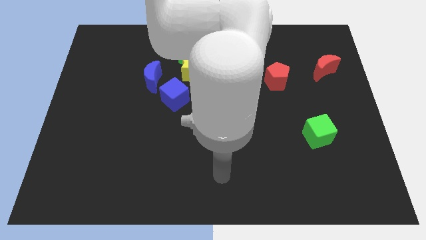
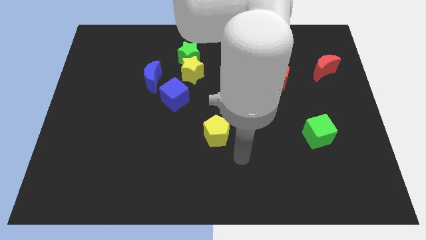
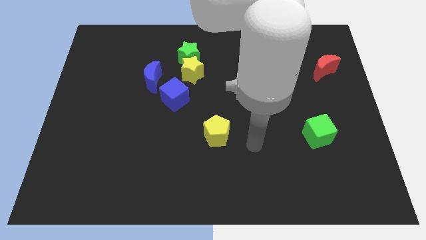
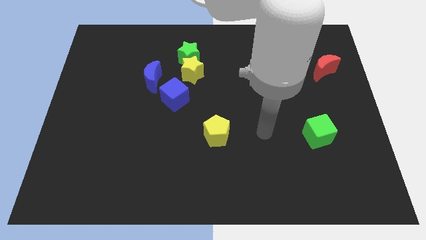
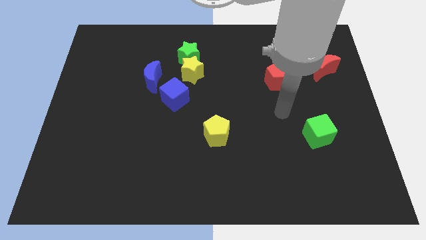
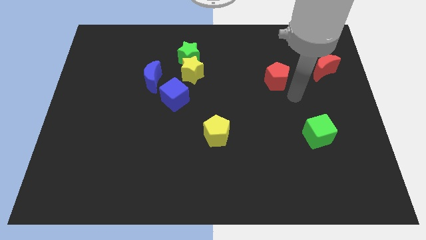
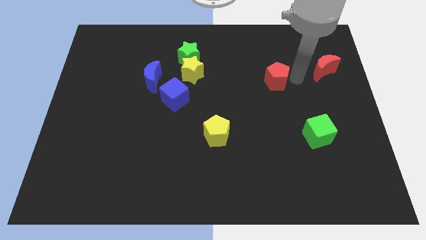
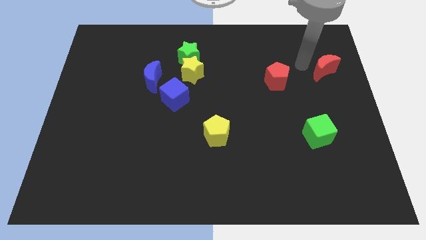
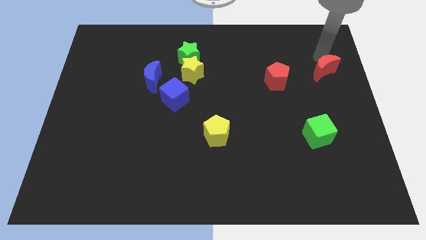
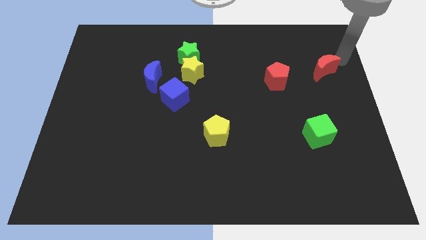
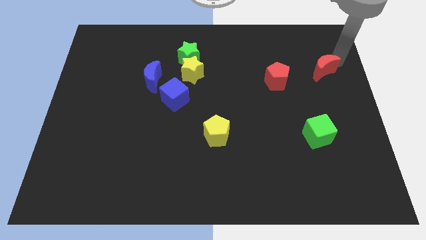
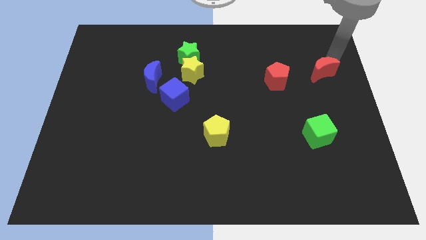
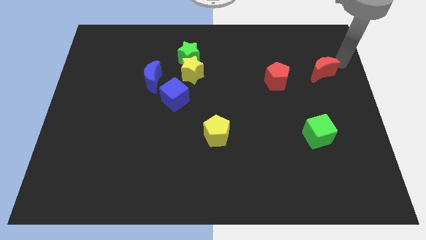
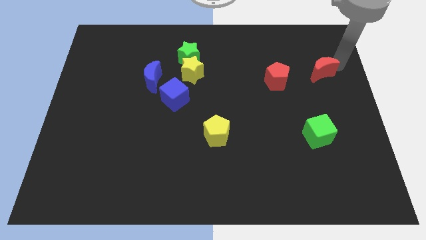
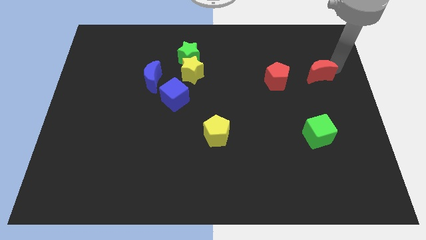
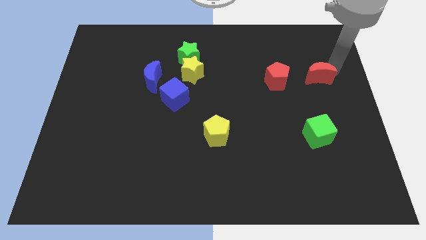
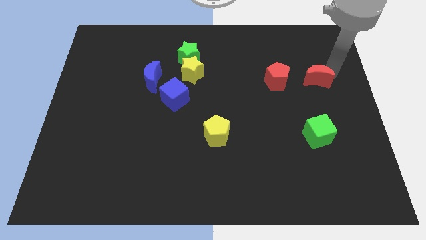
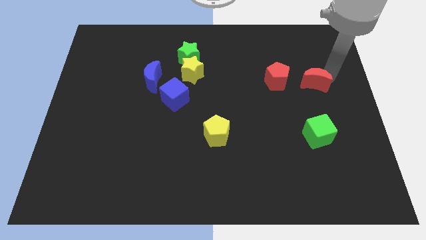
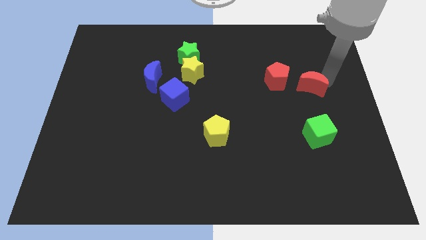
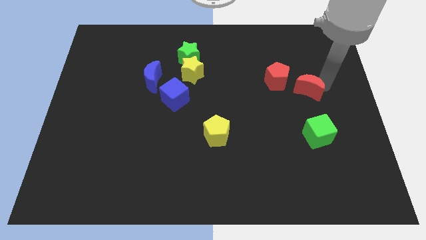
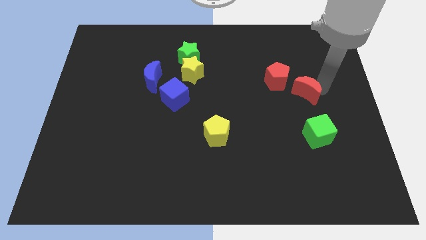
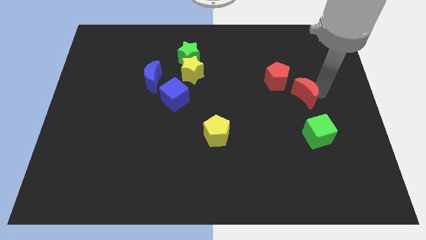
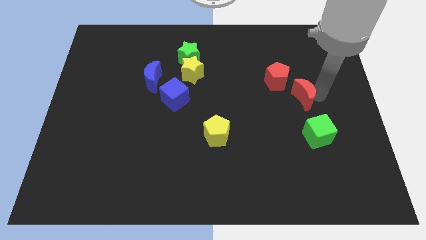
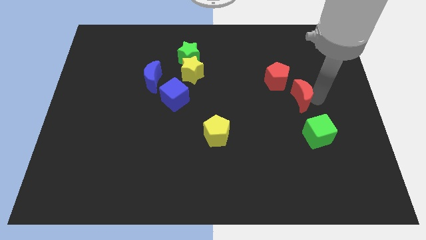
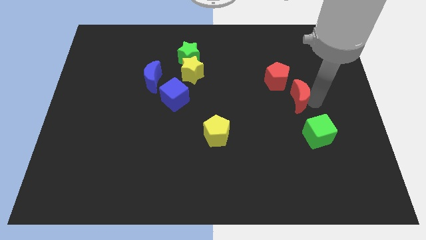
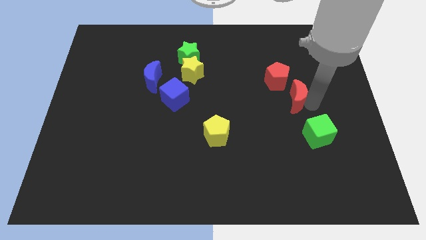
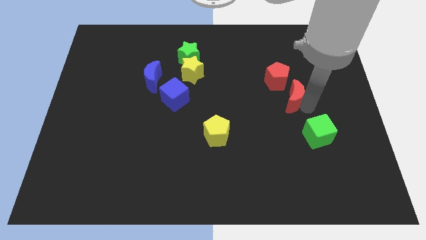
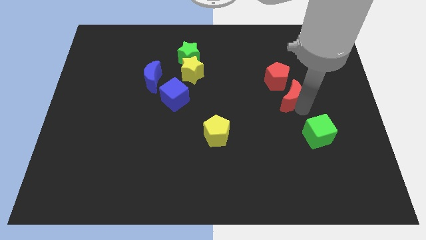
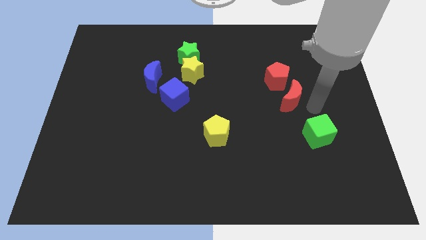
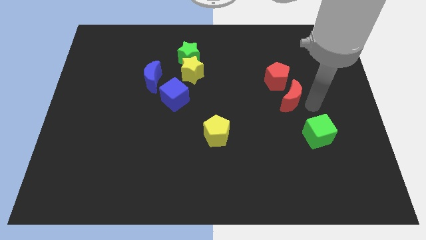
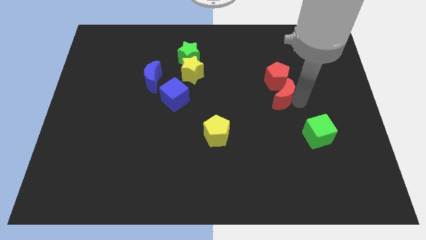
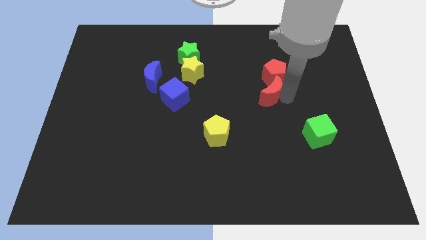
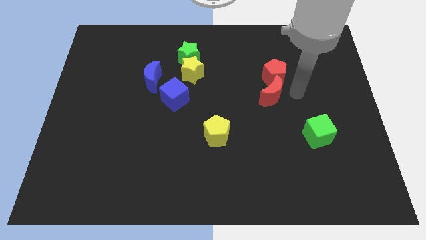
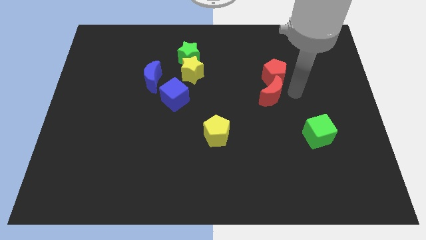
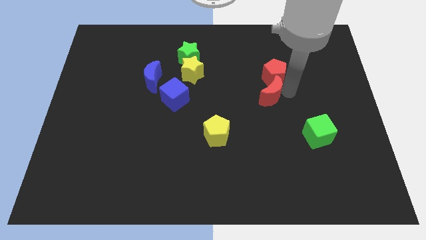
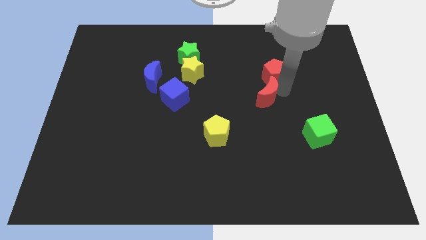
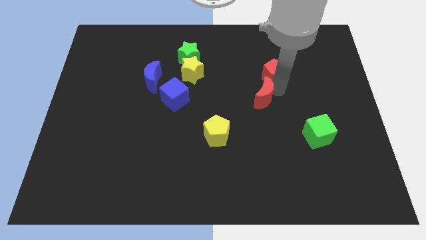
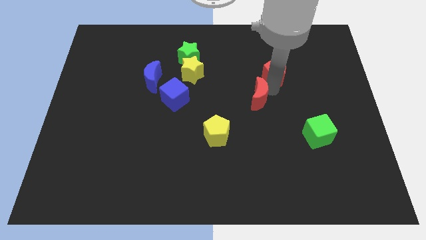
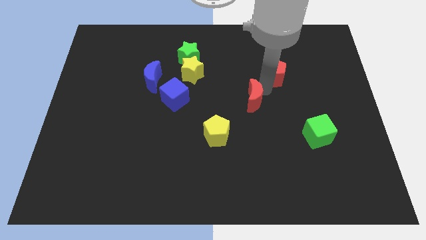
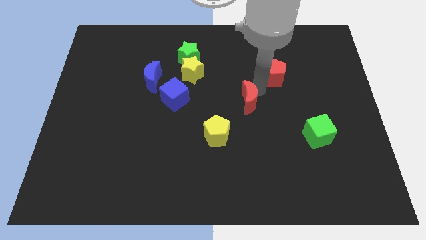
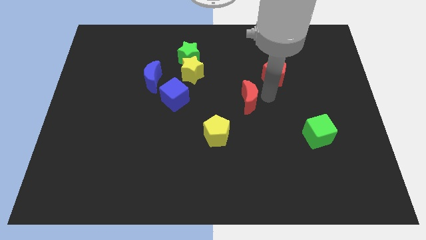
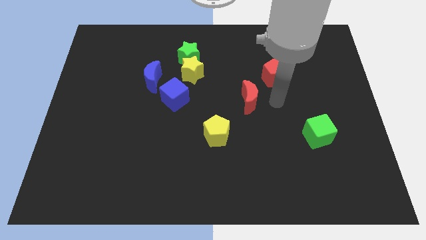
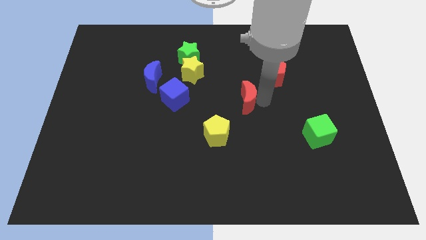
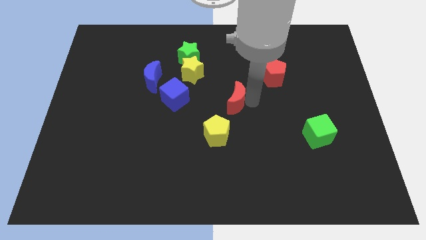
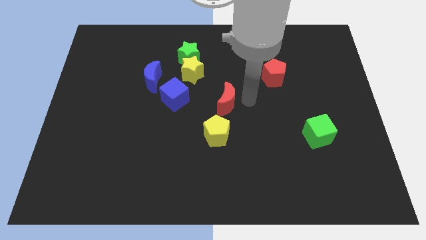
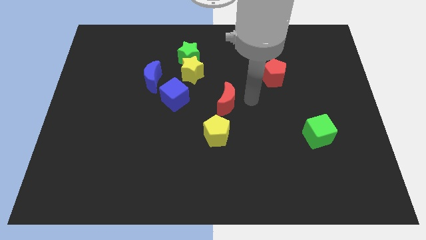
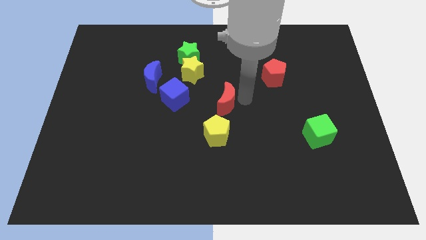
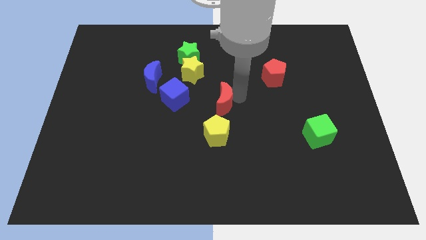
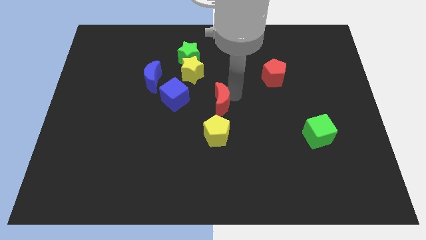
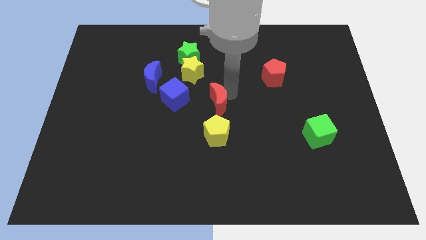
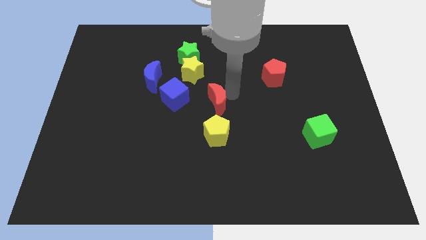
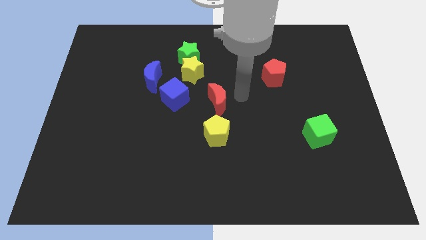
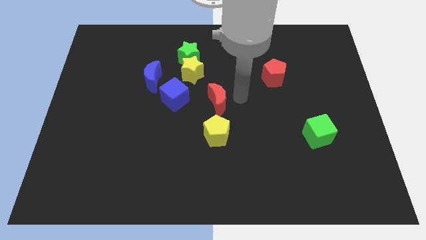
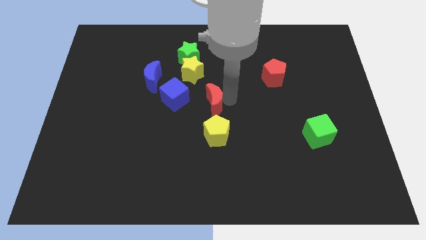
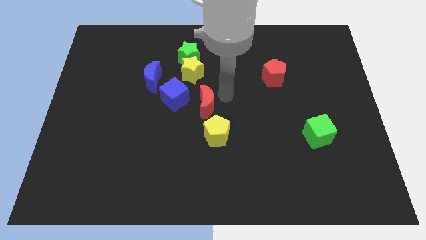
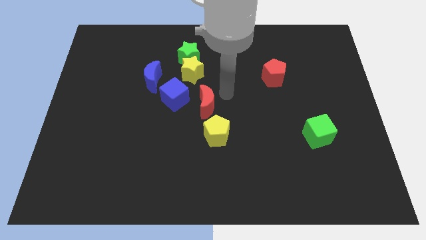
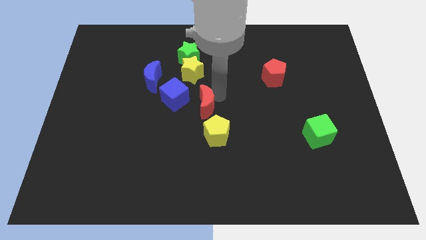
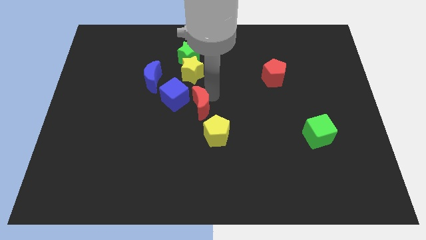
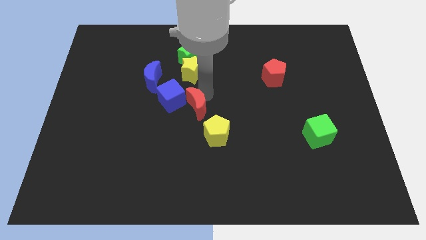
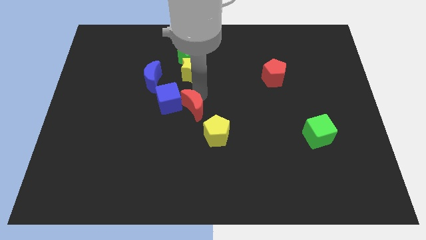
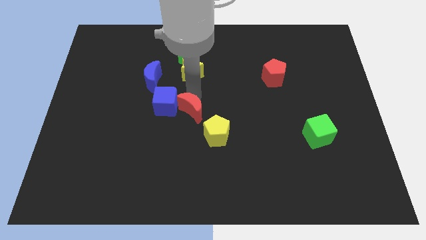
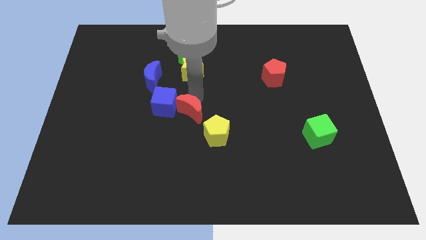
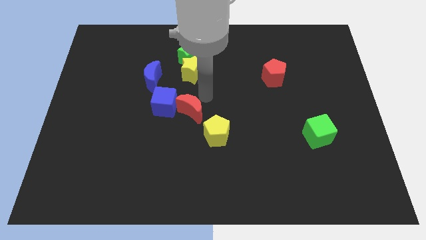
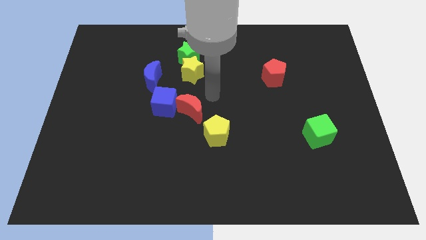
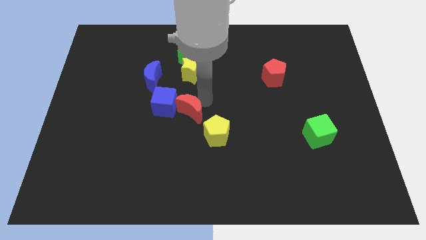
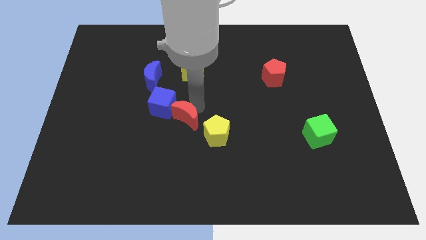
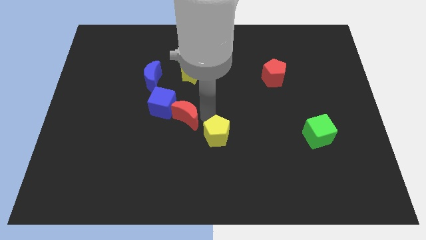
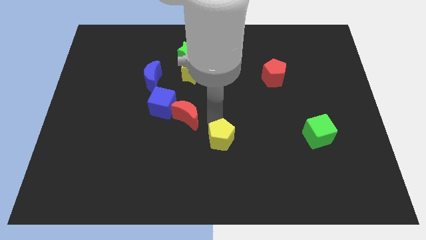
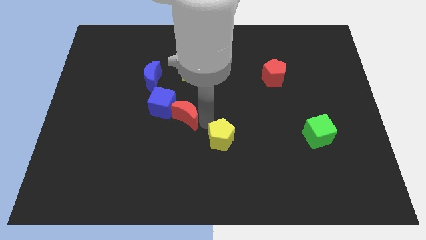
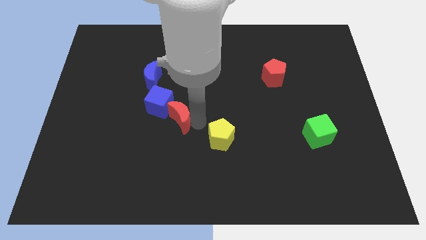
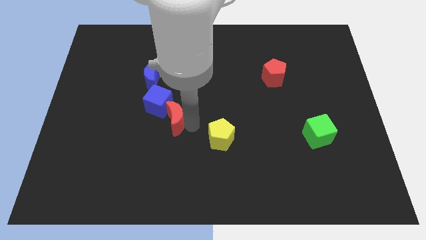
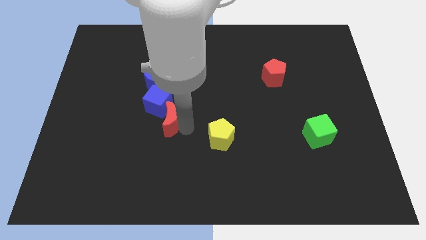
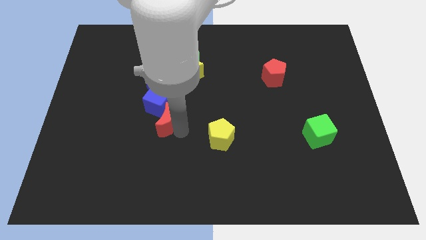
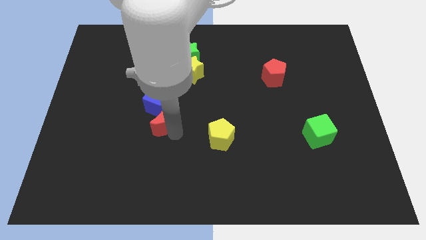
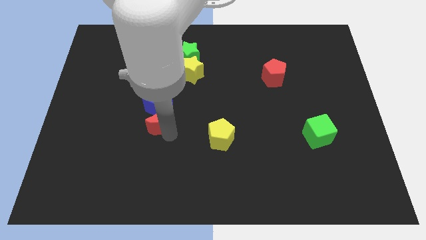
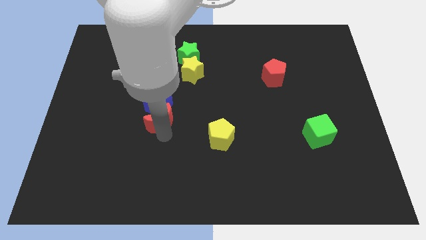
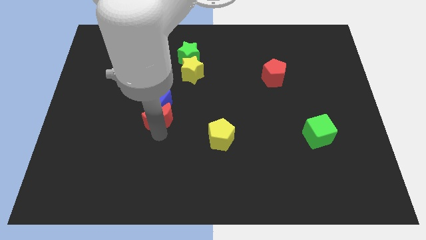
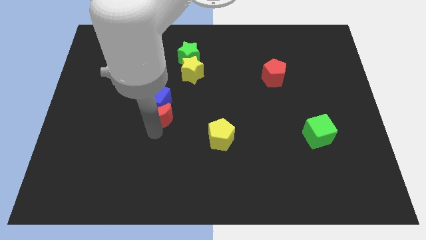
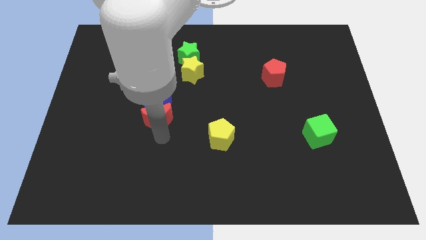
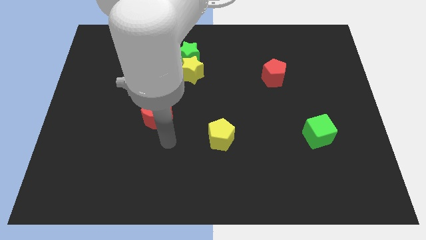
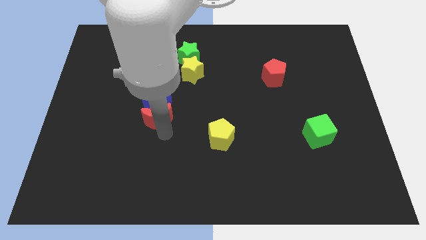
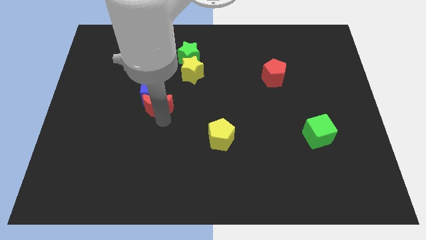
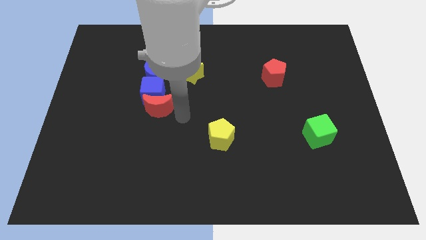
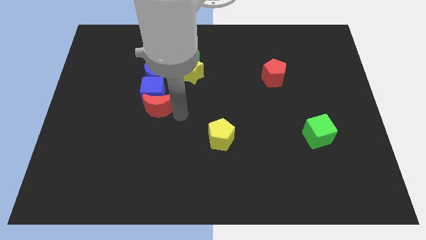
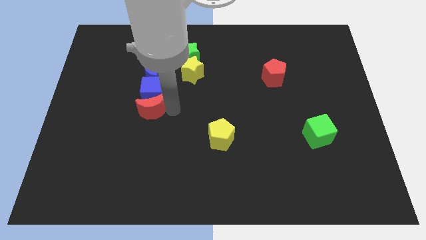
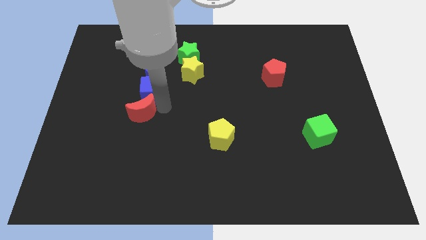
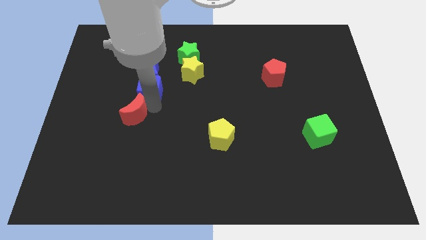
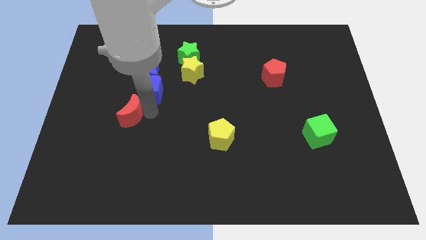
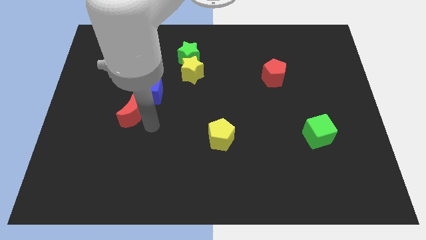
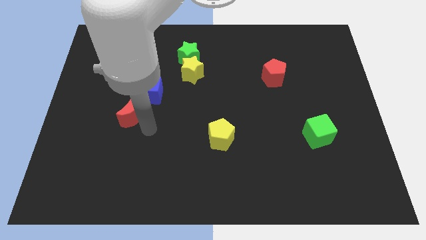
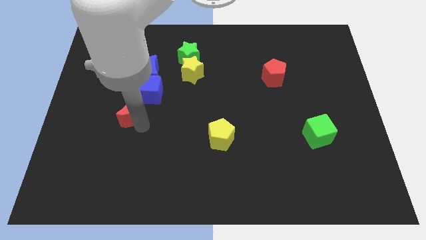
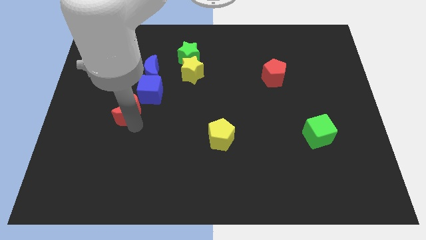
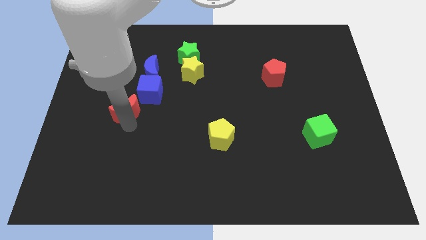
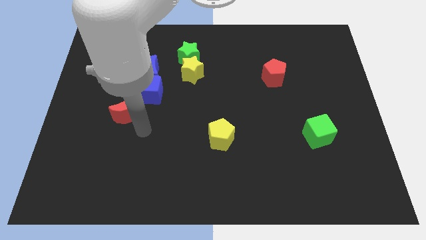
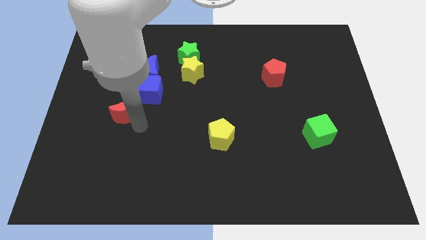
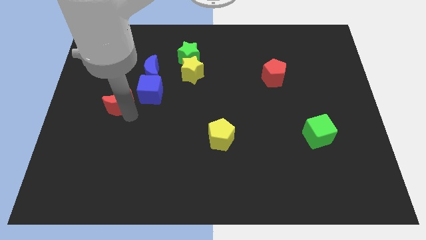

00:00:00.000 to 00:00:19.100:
push the red moon left of the blue cube
